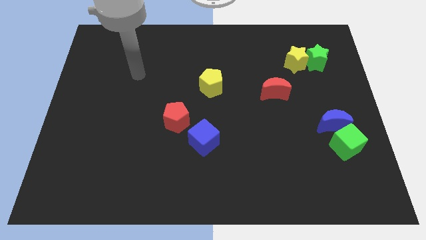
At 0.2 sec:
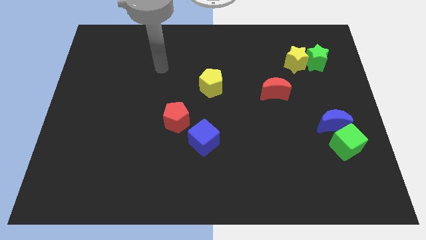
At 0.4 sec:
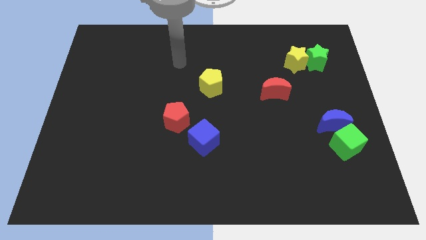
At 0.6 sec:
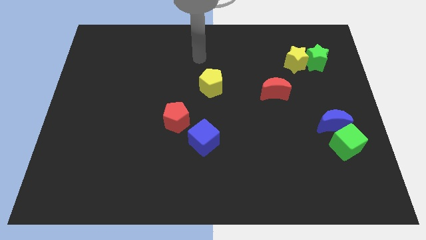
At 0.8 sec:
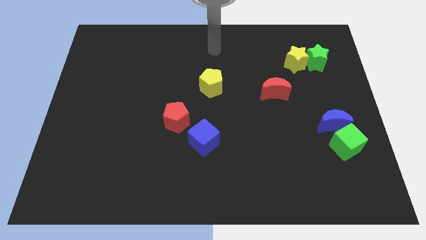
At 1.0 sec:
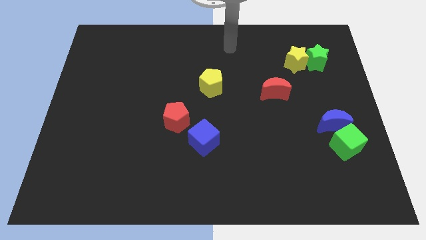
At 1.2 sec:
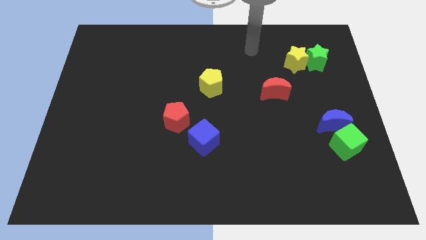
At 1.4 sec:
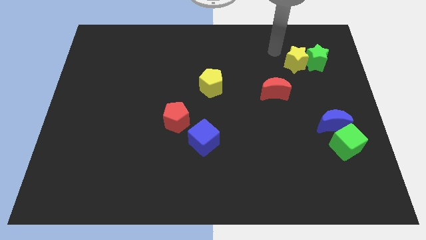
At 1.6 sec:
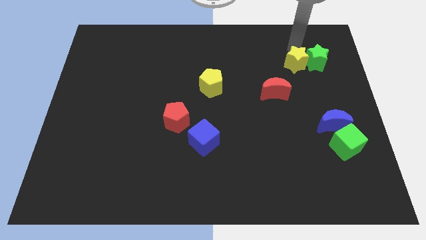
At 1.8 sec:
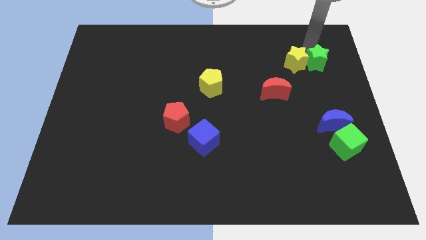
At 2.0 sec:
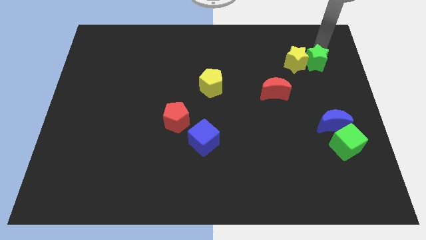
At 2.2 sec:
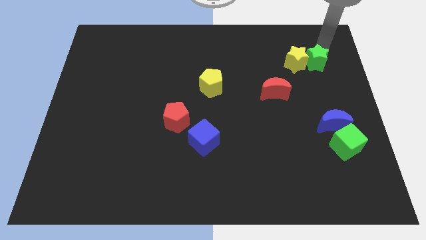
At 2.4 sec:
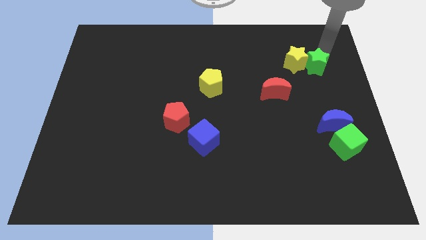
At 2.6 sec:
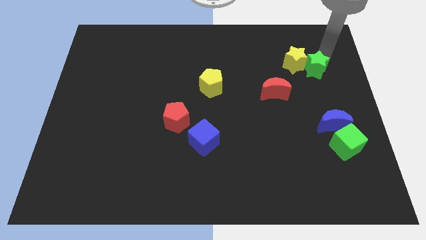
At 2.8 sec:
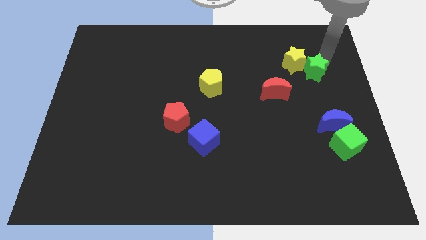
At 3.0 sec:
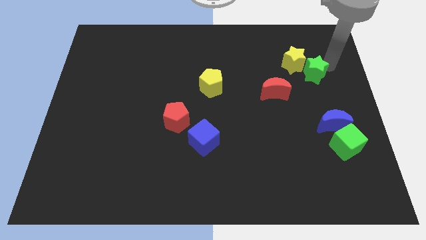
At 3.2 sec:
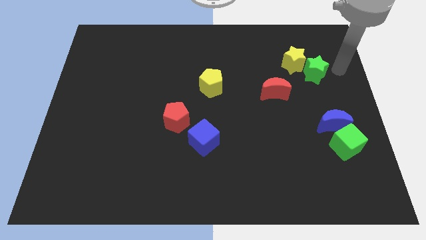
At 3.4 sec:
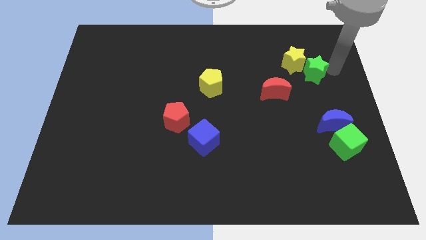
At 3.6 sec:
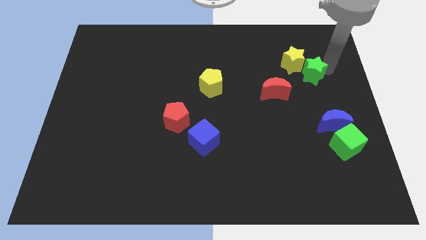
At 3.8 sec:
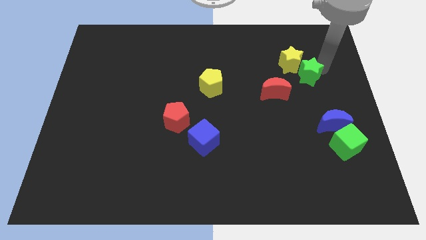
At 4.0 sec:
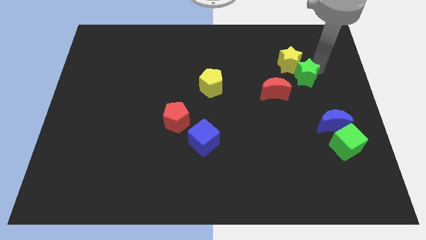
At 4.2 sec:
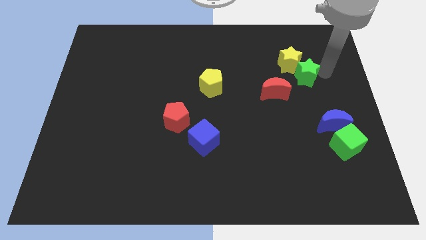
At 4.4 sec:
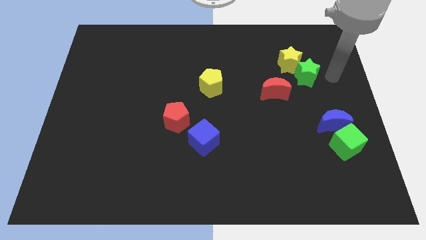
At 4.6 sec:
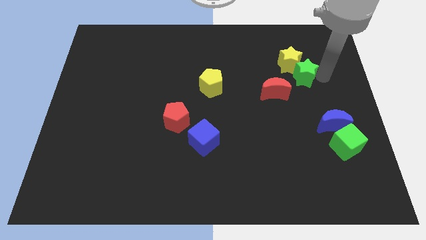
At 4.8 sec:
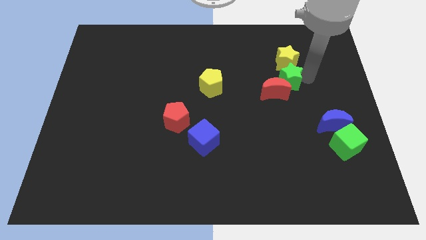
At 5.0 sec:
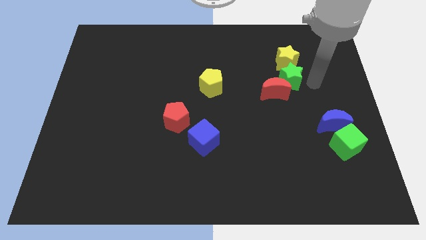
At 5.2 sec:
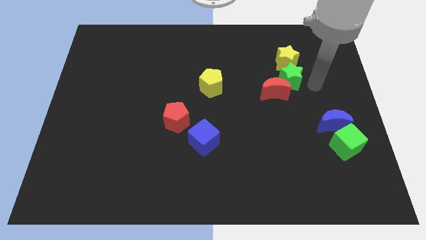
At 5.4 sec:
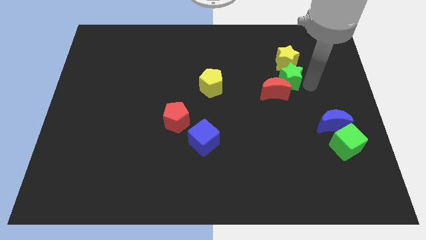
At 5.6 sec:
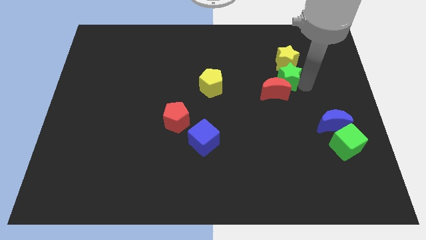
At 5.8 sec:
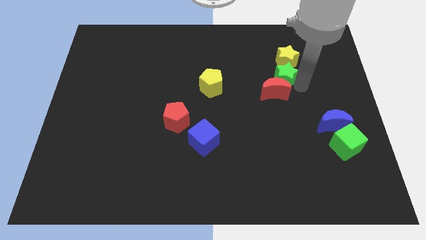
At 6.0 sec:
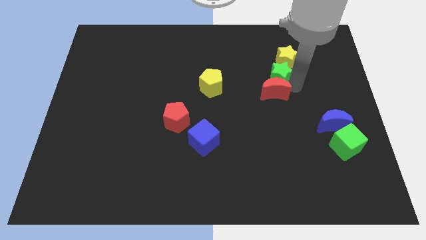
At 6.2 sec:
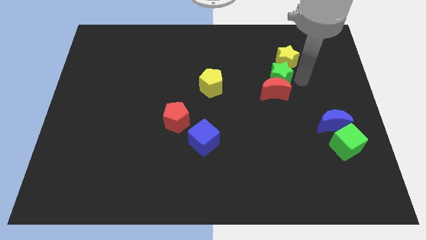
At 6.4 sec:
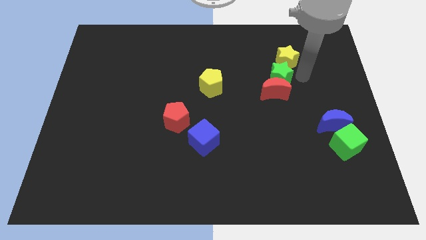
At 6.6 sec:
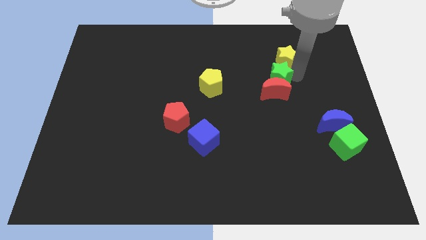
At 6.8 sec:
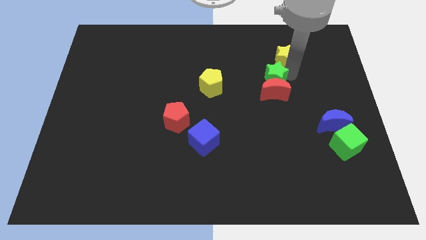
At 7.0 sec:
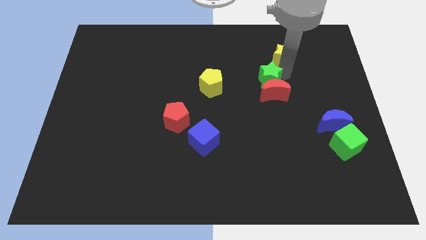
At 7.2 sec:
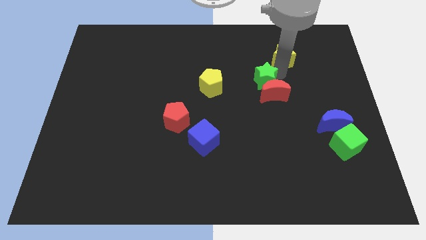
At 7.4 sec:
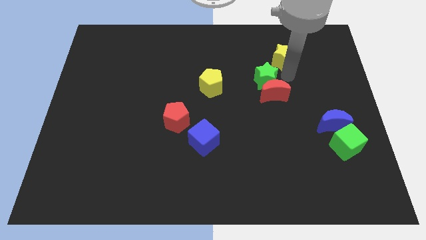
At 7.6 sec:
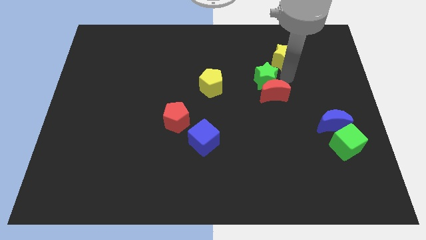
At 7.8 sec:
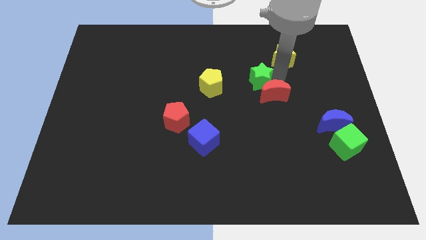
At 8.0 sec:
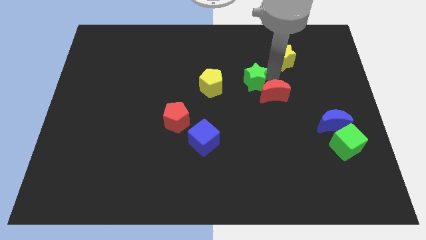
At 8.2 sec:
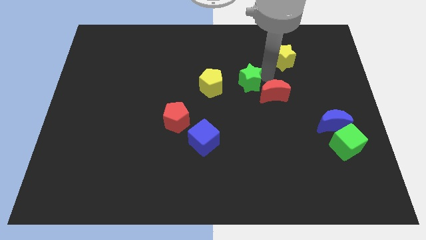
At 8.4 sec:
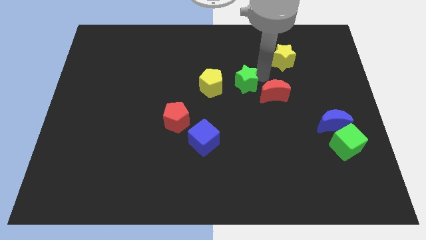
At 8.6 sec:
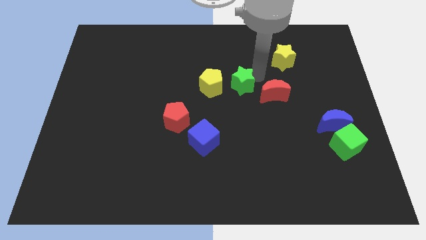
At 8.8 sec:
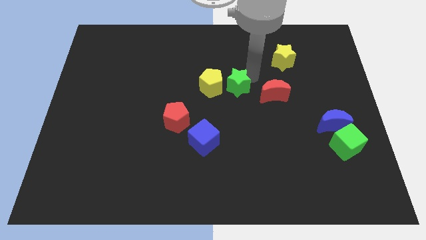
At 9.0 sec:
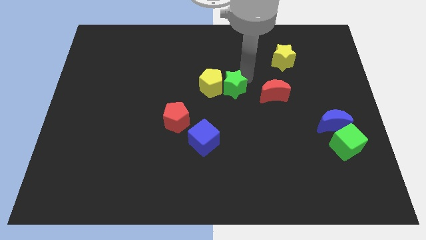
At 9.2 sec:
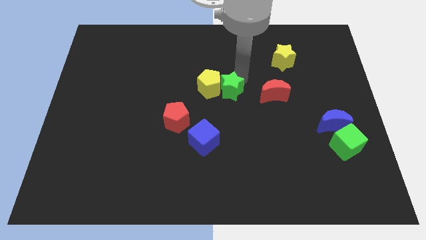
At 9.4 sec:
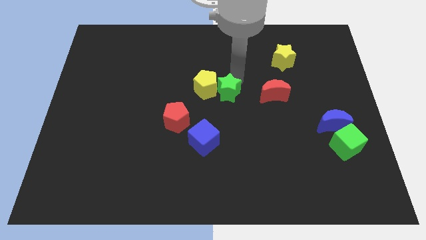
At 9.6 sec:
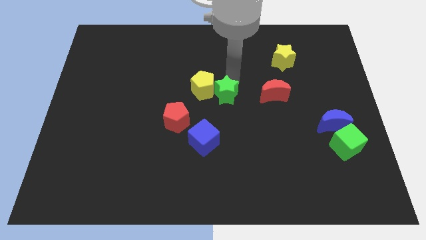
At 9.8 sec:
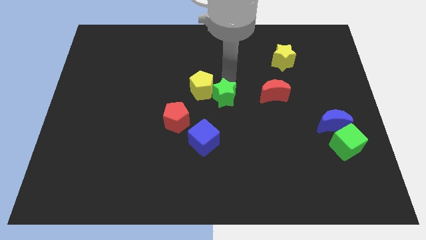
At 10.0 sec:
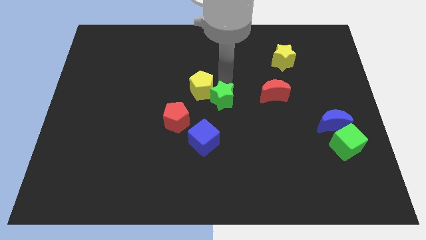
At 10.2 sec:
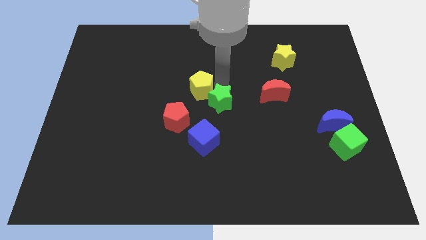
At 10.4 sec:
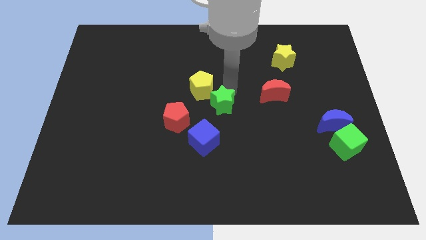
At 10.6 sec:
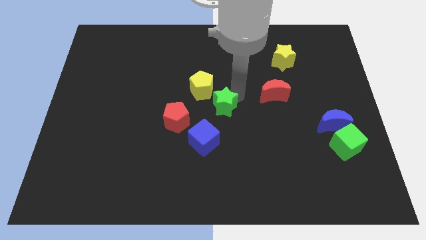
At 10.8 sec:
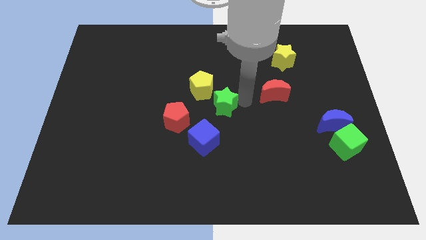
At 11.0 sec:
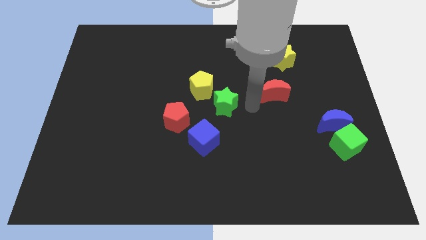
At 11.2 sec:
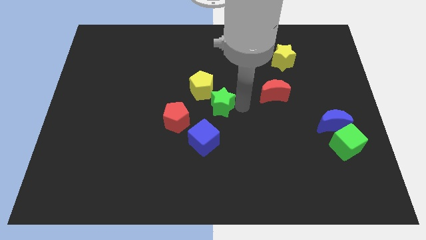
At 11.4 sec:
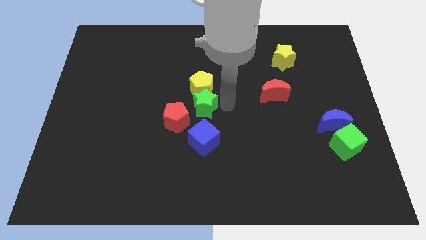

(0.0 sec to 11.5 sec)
slide the green star to the bottom left side of the yellow pentagon

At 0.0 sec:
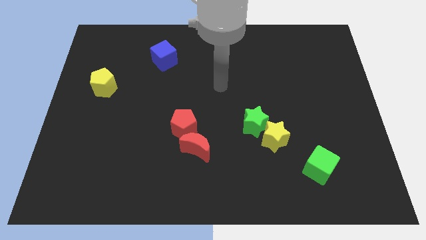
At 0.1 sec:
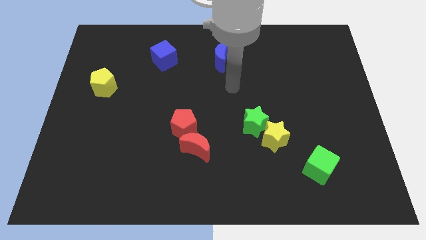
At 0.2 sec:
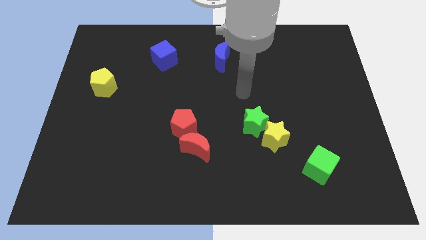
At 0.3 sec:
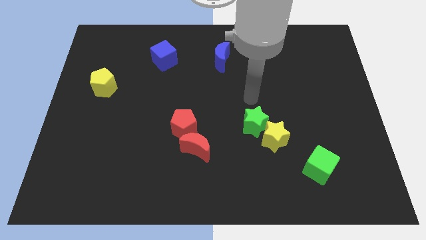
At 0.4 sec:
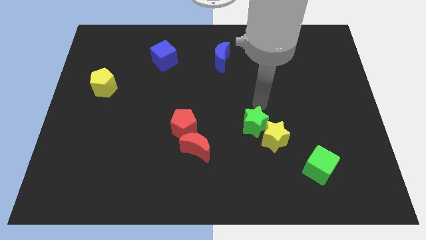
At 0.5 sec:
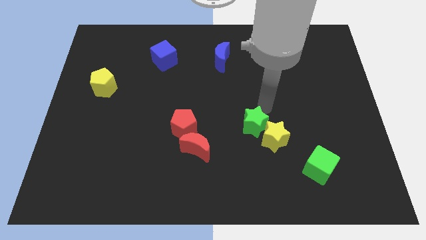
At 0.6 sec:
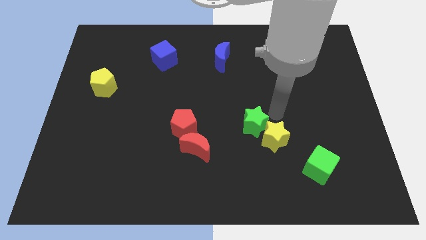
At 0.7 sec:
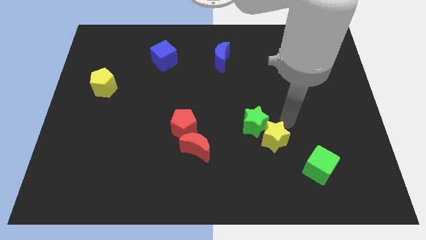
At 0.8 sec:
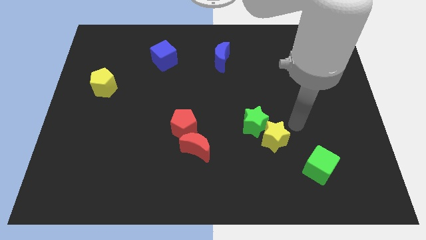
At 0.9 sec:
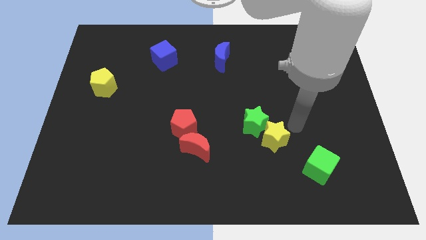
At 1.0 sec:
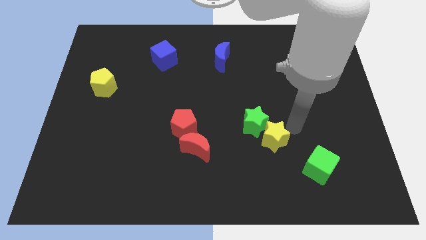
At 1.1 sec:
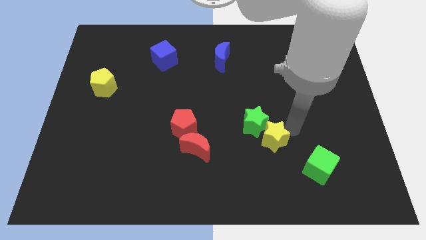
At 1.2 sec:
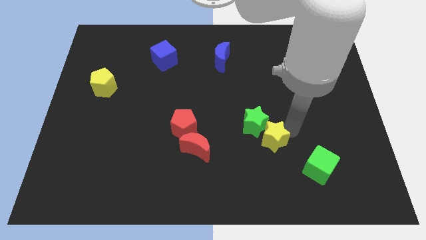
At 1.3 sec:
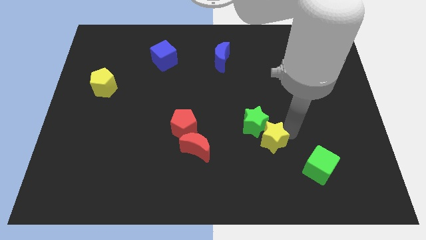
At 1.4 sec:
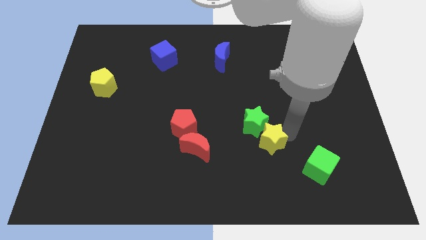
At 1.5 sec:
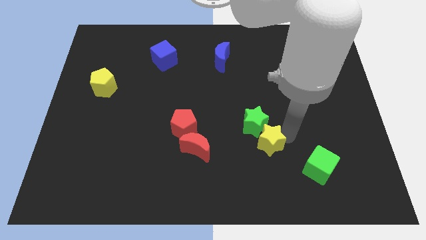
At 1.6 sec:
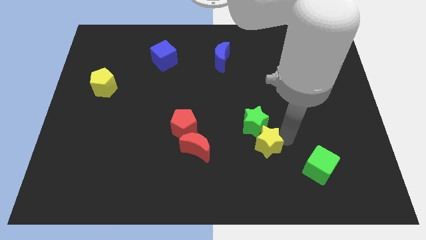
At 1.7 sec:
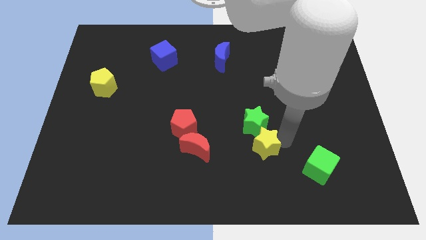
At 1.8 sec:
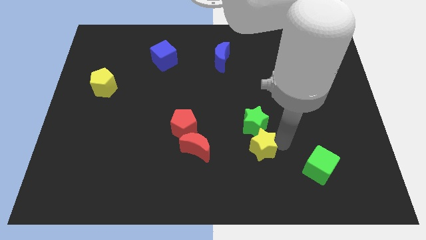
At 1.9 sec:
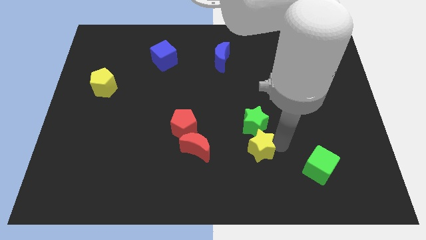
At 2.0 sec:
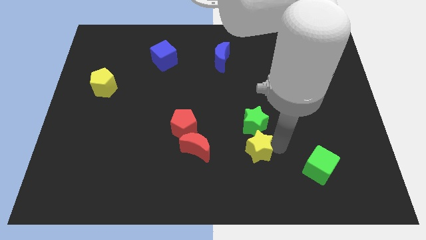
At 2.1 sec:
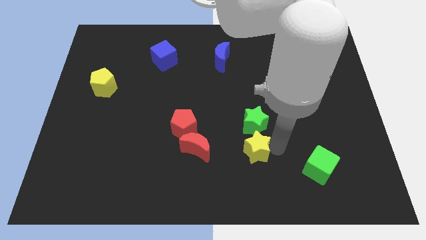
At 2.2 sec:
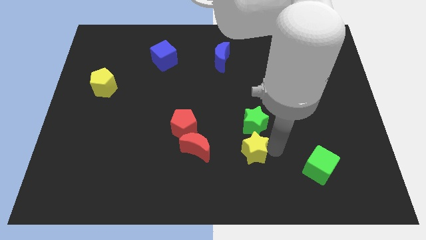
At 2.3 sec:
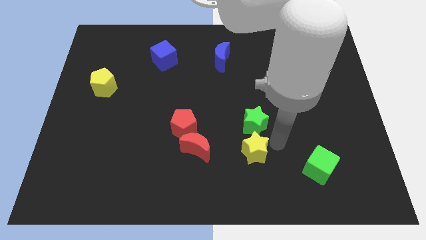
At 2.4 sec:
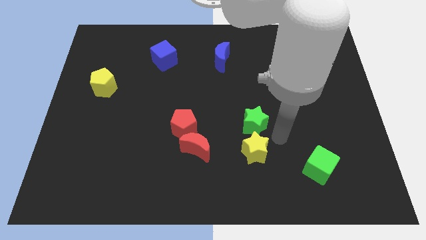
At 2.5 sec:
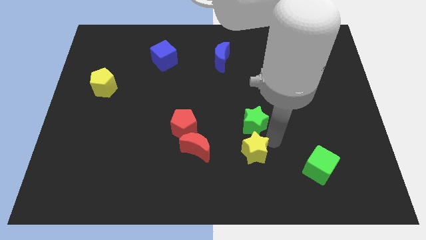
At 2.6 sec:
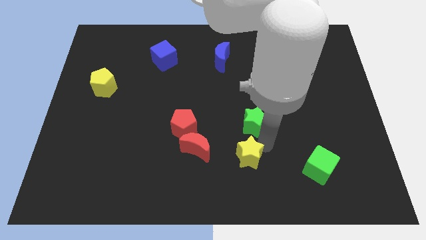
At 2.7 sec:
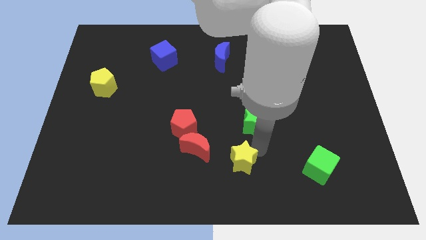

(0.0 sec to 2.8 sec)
move the yellow star to the bottom right of the red moon
